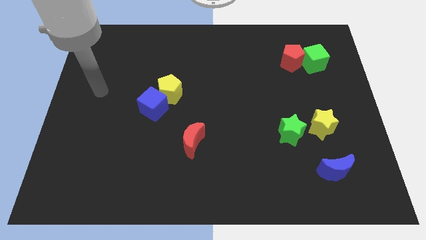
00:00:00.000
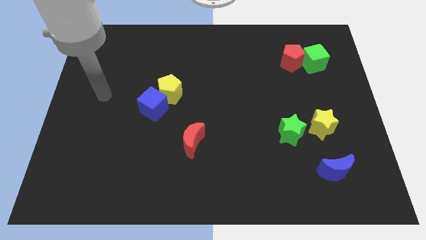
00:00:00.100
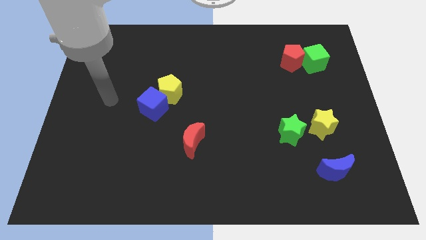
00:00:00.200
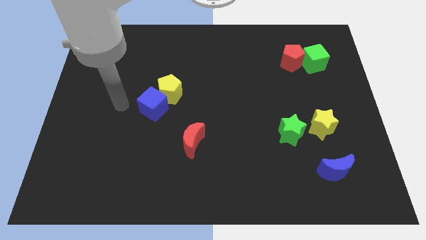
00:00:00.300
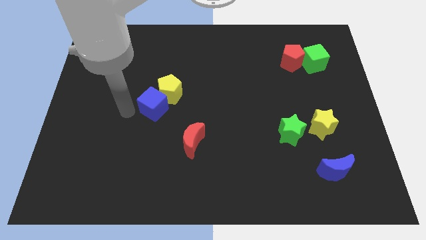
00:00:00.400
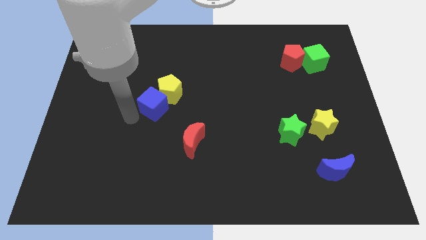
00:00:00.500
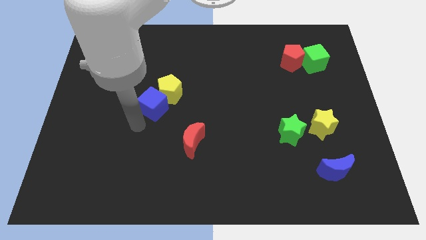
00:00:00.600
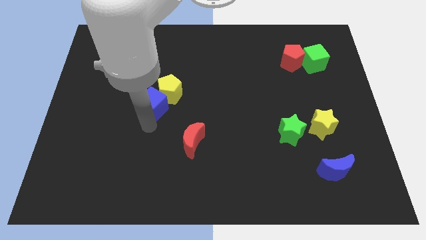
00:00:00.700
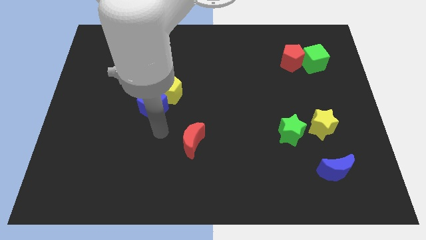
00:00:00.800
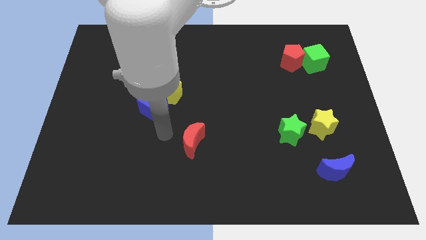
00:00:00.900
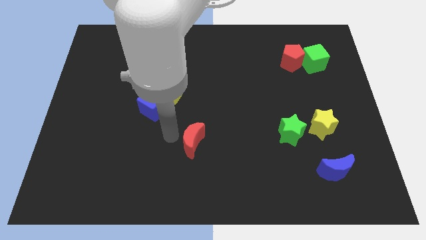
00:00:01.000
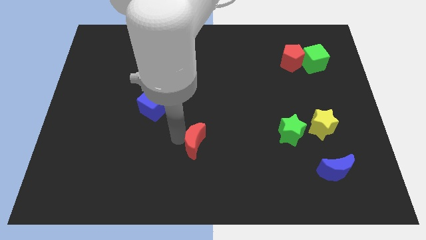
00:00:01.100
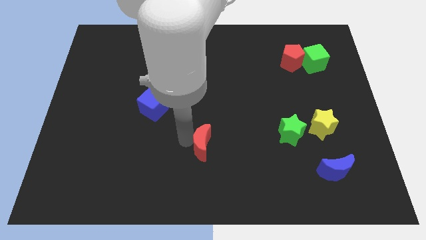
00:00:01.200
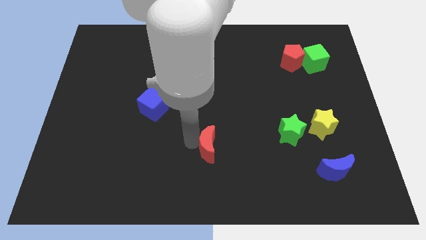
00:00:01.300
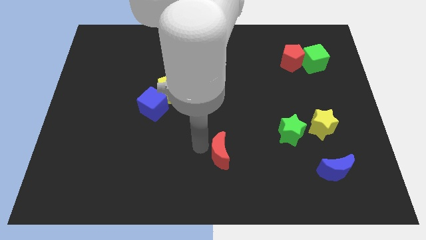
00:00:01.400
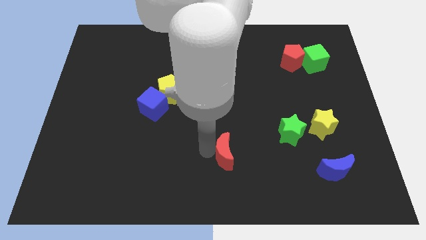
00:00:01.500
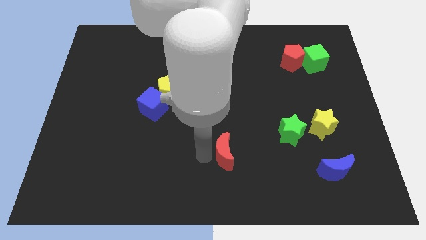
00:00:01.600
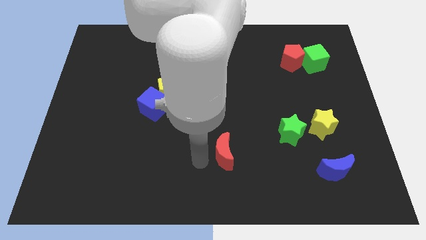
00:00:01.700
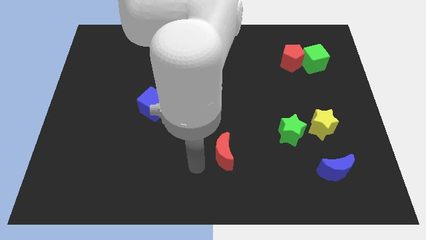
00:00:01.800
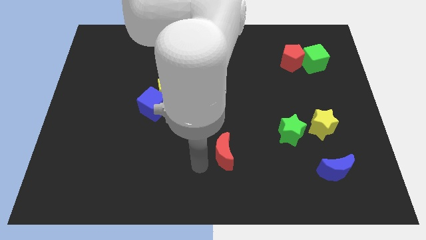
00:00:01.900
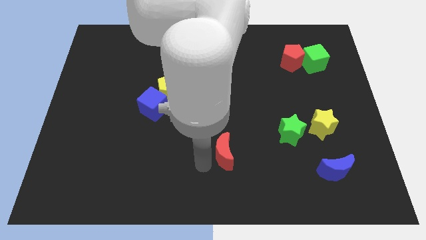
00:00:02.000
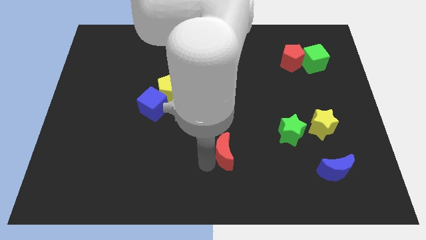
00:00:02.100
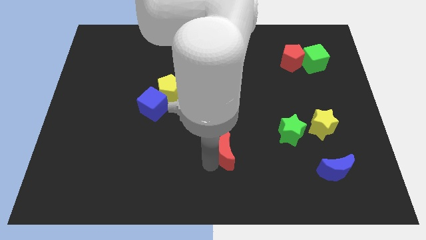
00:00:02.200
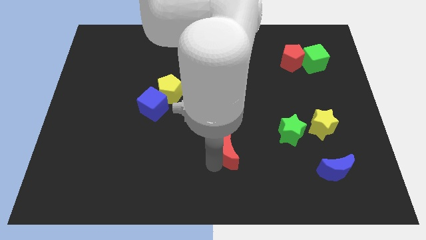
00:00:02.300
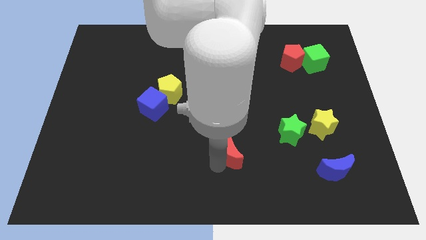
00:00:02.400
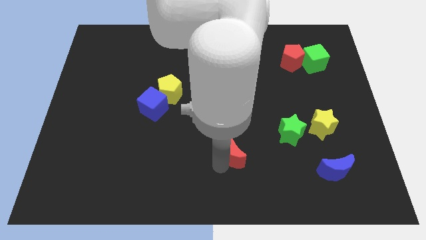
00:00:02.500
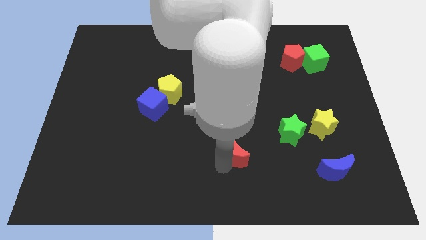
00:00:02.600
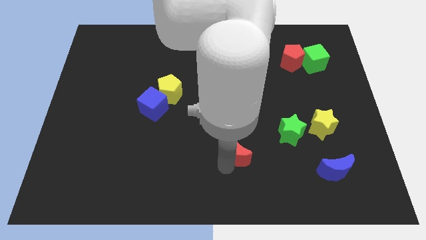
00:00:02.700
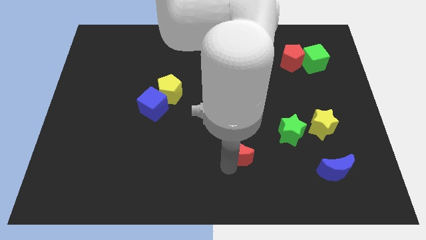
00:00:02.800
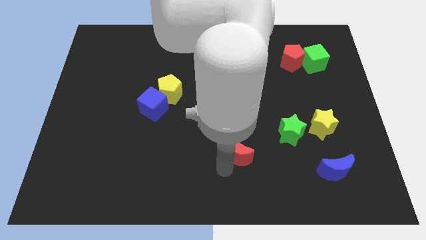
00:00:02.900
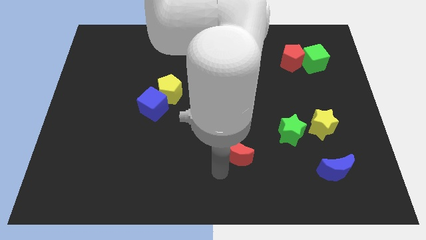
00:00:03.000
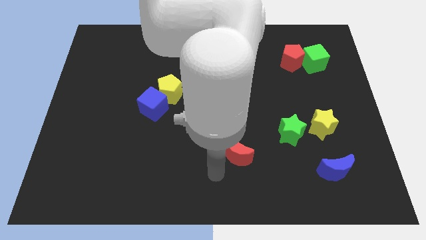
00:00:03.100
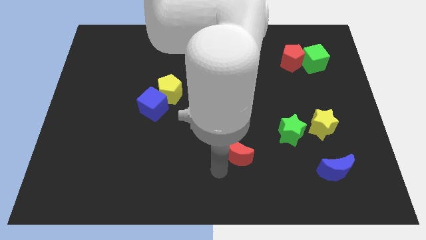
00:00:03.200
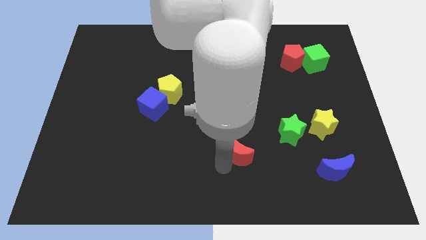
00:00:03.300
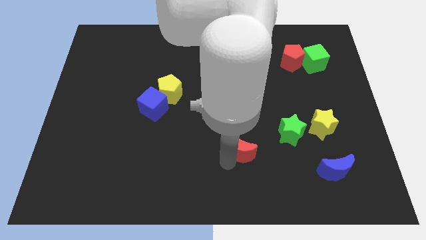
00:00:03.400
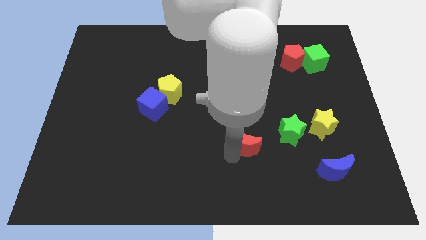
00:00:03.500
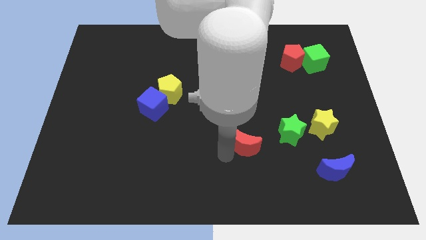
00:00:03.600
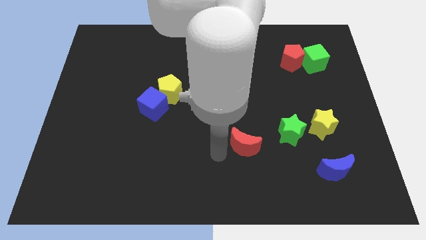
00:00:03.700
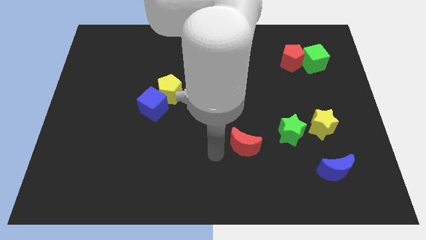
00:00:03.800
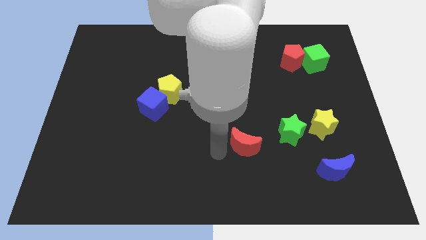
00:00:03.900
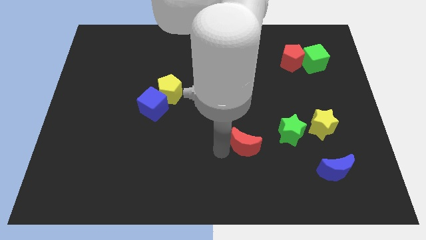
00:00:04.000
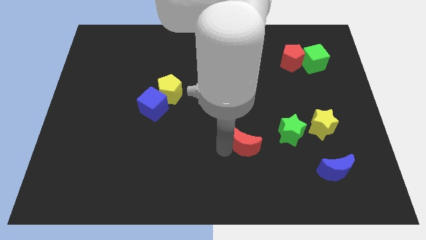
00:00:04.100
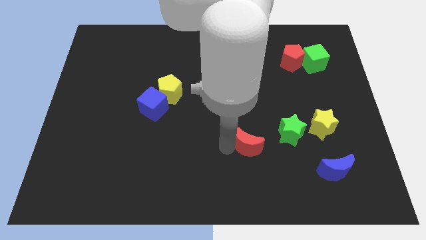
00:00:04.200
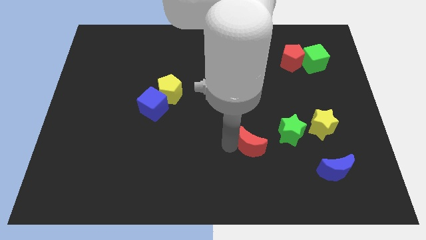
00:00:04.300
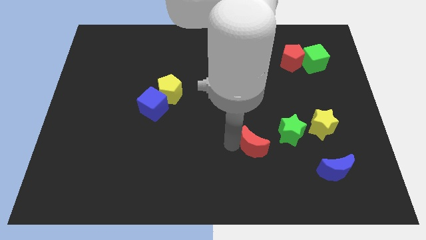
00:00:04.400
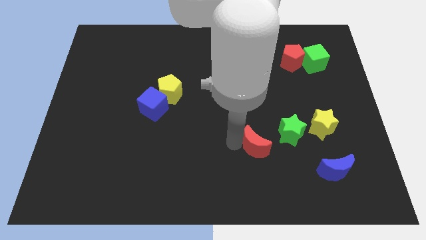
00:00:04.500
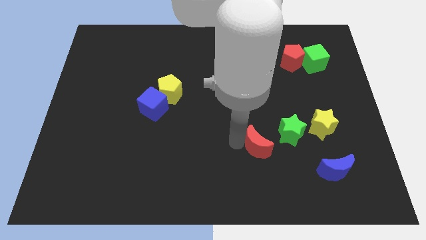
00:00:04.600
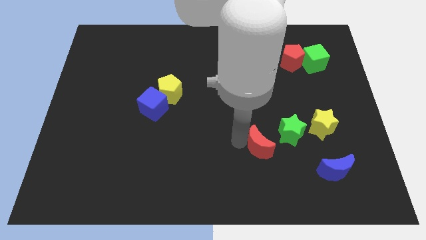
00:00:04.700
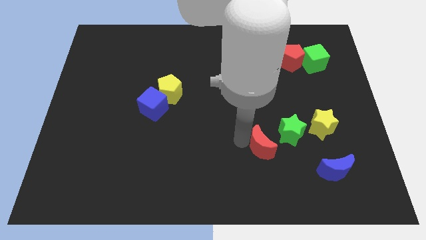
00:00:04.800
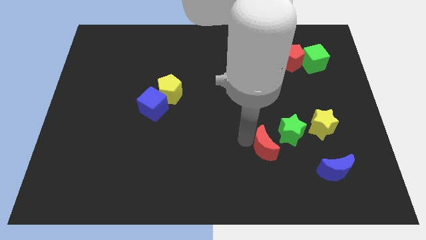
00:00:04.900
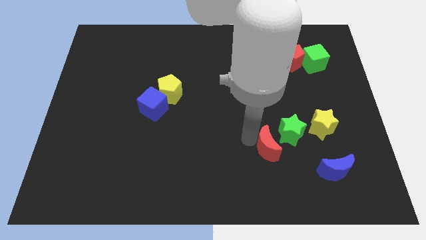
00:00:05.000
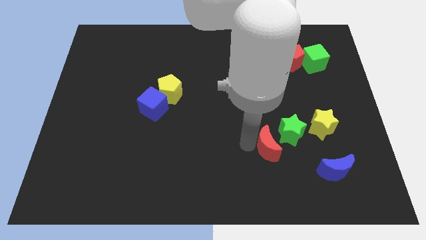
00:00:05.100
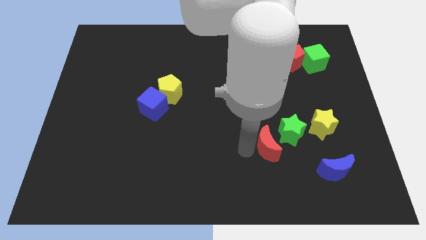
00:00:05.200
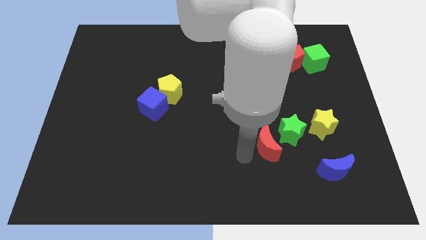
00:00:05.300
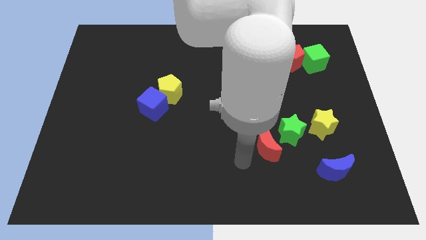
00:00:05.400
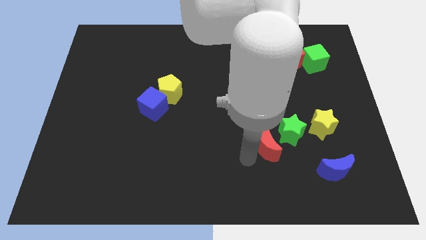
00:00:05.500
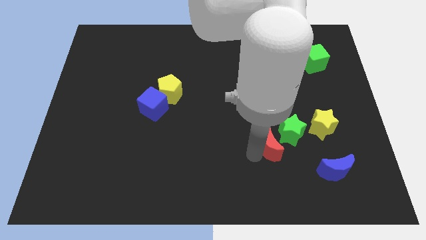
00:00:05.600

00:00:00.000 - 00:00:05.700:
put the red moon to the green star

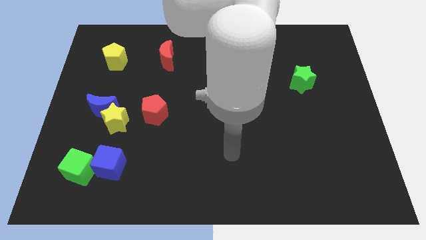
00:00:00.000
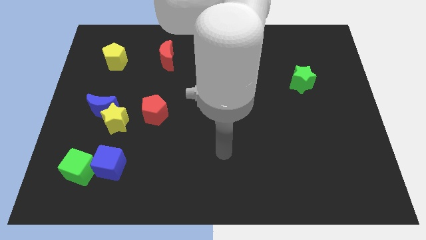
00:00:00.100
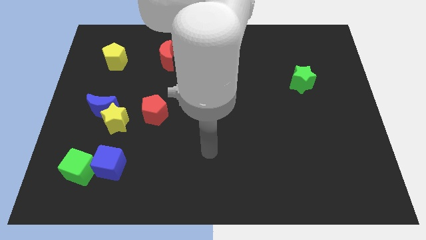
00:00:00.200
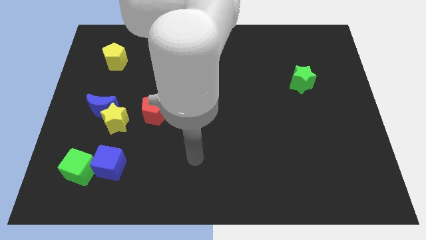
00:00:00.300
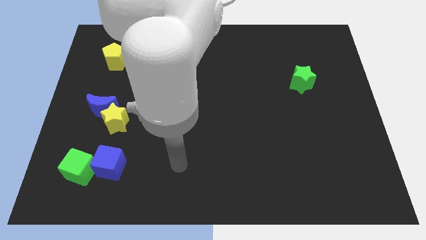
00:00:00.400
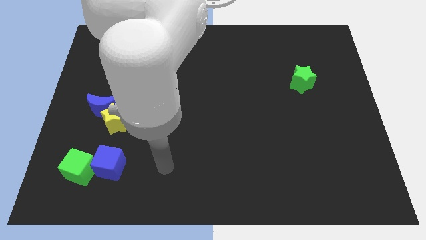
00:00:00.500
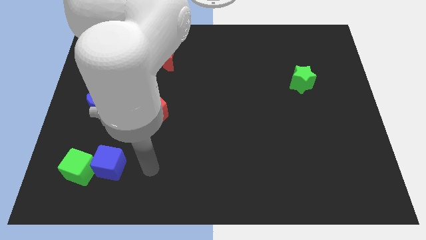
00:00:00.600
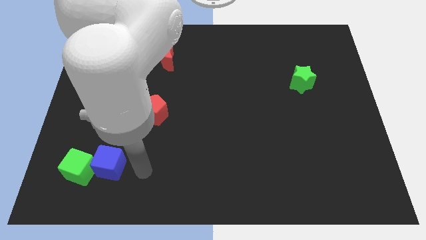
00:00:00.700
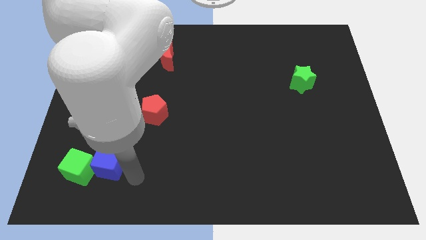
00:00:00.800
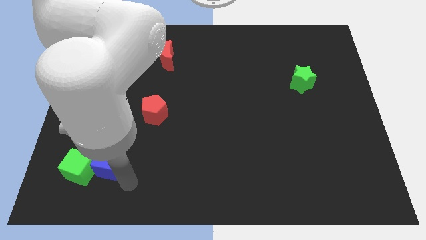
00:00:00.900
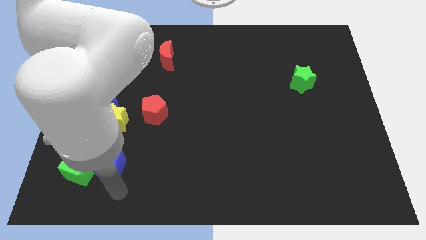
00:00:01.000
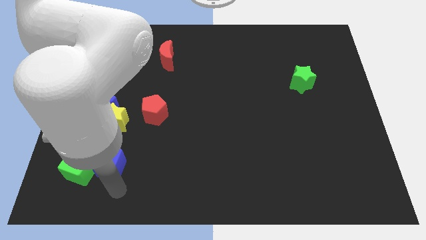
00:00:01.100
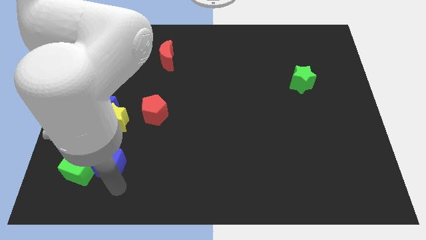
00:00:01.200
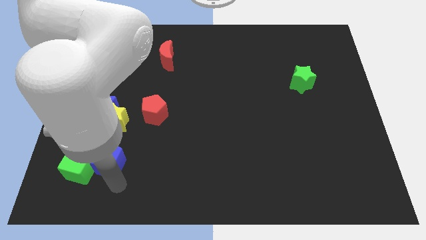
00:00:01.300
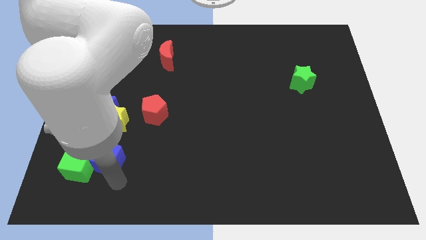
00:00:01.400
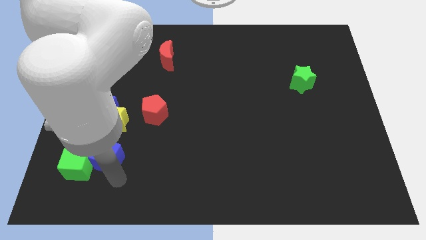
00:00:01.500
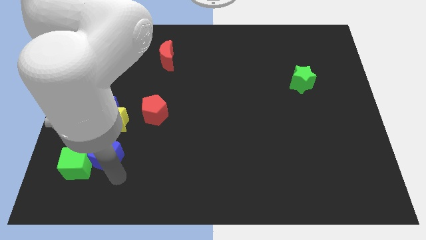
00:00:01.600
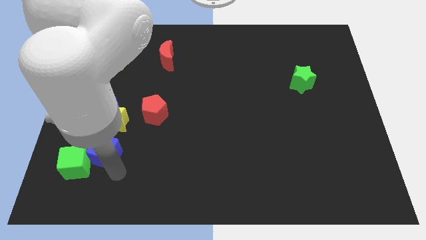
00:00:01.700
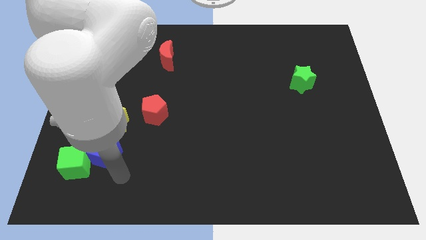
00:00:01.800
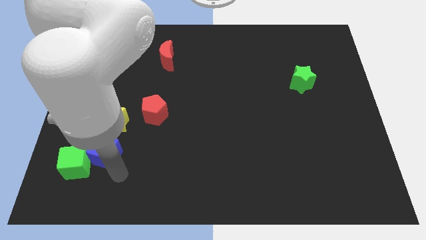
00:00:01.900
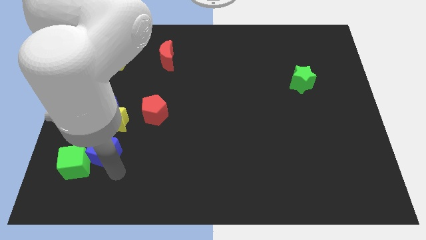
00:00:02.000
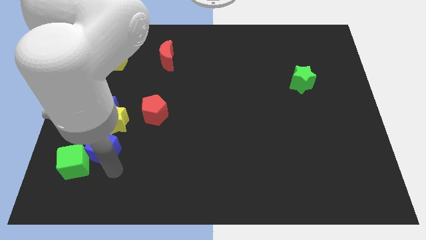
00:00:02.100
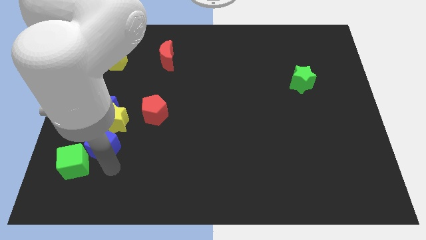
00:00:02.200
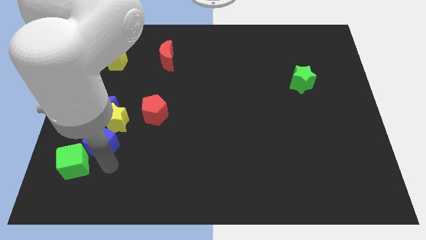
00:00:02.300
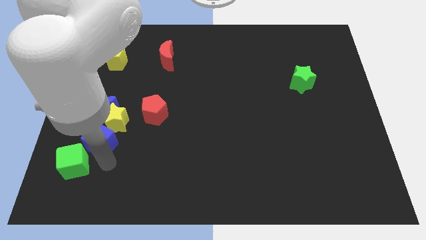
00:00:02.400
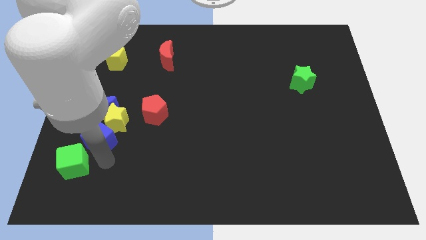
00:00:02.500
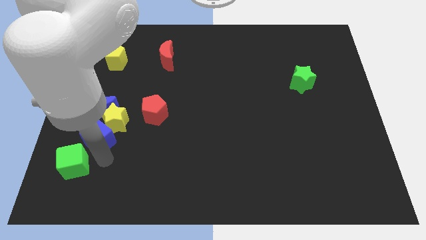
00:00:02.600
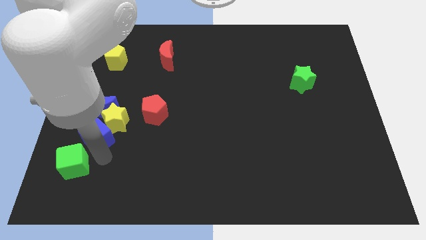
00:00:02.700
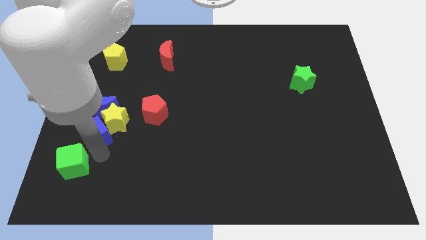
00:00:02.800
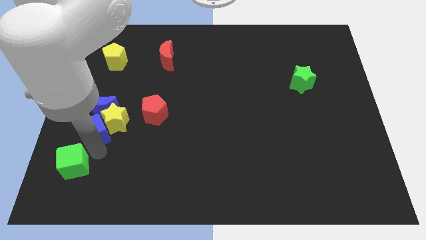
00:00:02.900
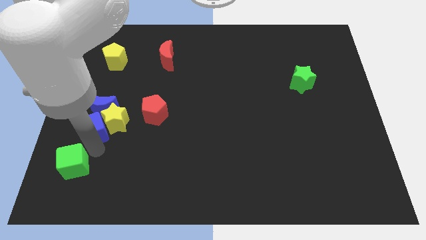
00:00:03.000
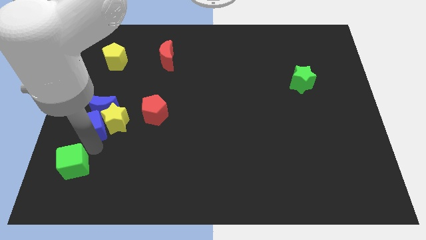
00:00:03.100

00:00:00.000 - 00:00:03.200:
put the blue cube towards the blue moon
